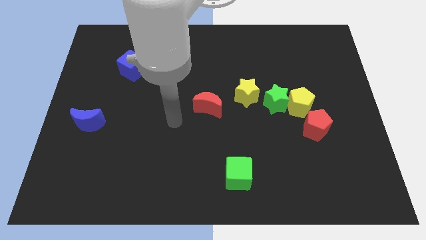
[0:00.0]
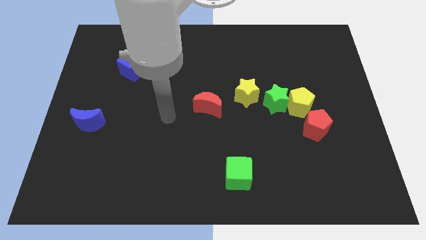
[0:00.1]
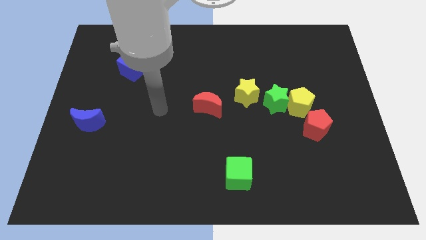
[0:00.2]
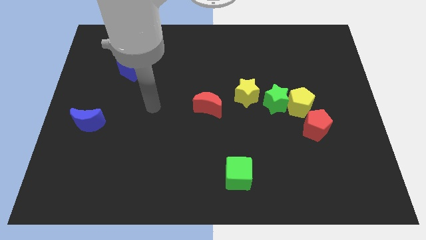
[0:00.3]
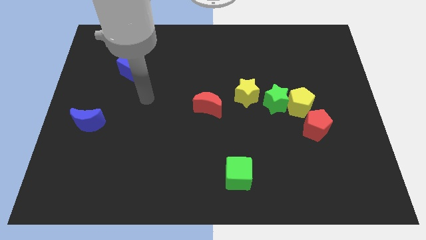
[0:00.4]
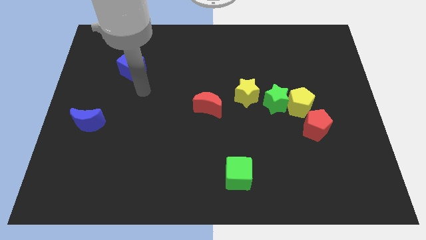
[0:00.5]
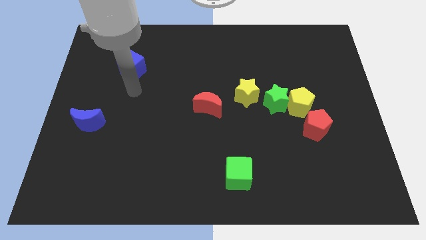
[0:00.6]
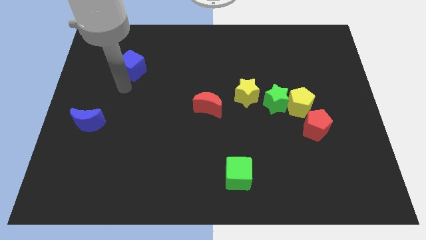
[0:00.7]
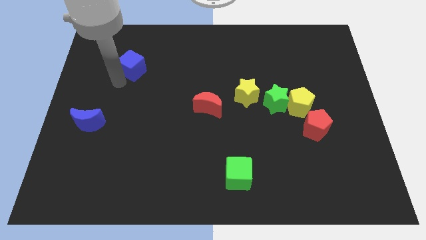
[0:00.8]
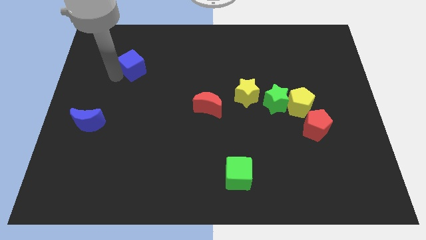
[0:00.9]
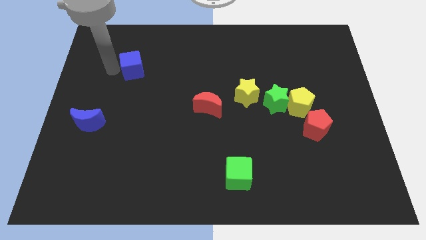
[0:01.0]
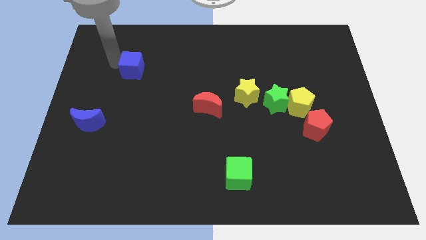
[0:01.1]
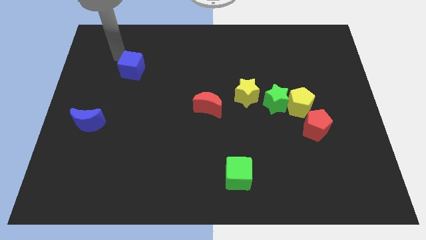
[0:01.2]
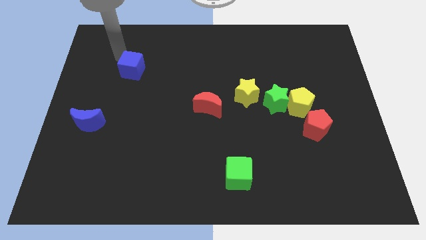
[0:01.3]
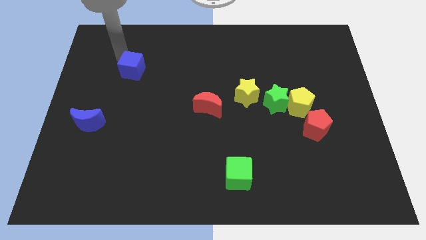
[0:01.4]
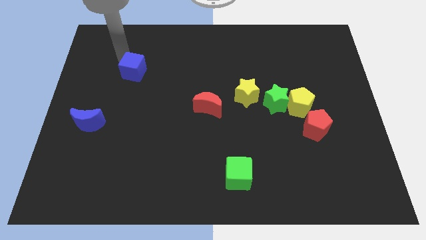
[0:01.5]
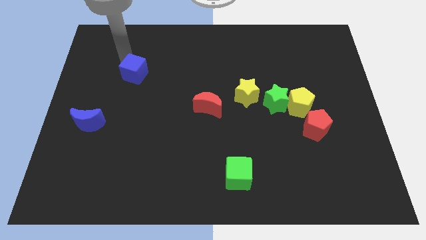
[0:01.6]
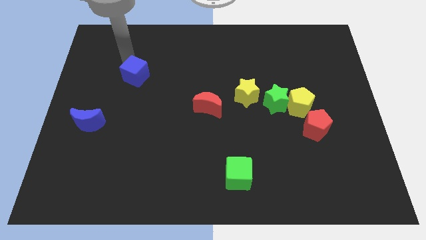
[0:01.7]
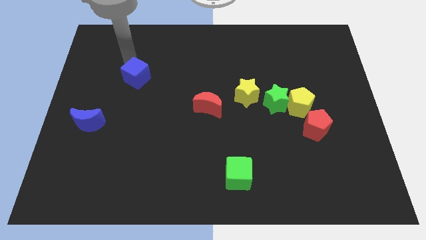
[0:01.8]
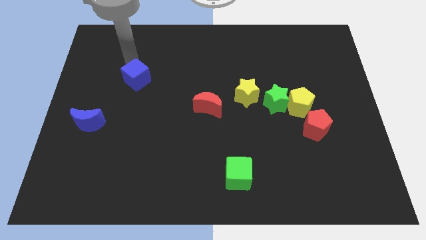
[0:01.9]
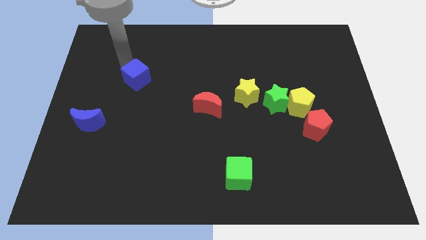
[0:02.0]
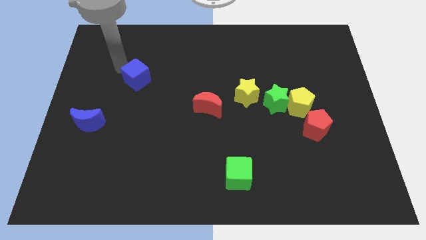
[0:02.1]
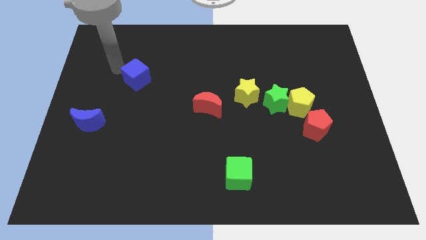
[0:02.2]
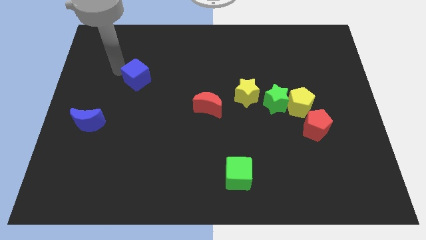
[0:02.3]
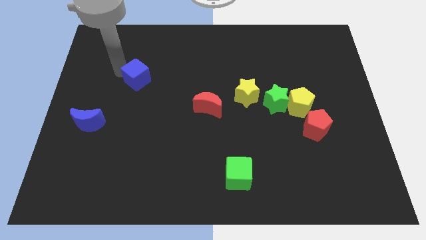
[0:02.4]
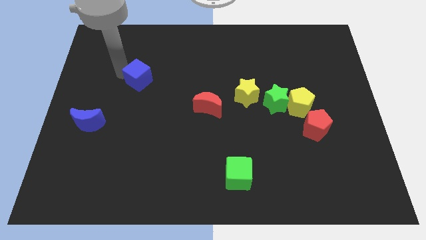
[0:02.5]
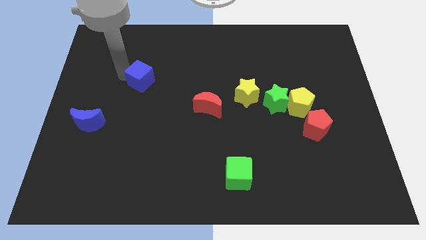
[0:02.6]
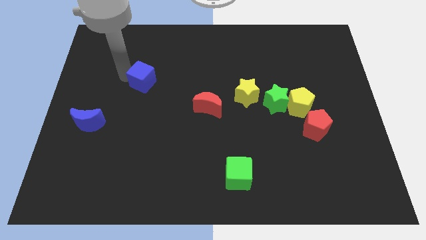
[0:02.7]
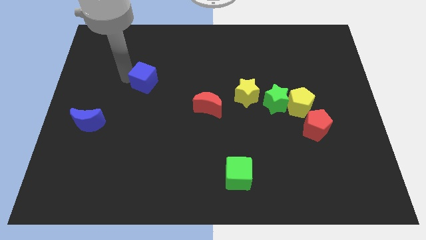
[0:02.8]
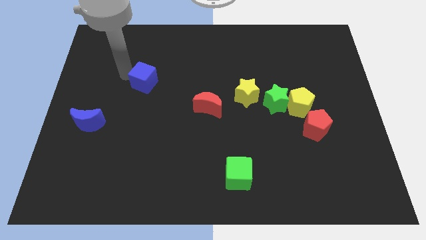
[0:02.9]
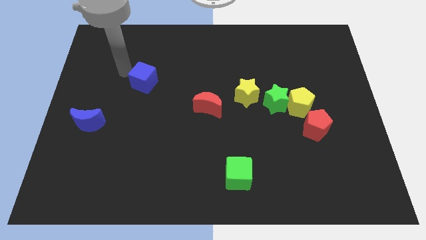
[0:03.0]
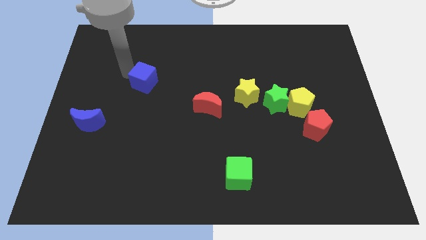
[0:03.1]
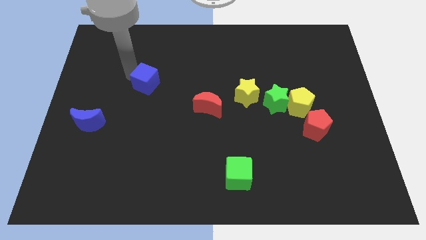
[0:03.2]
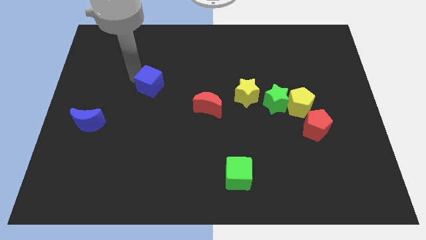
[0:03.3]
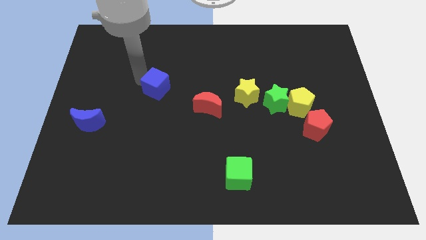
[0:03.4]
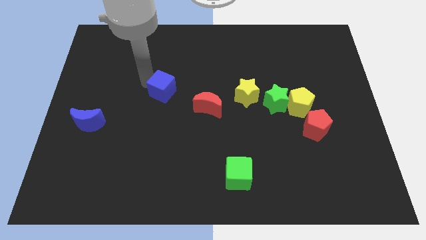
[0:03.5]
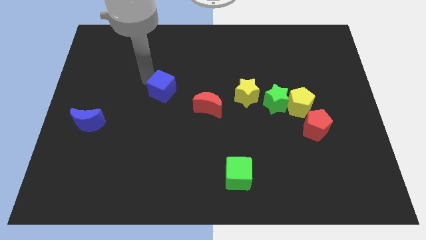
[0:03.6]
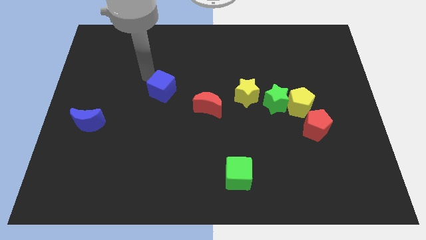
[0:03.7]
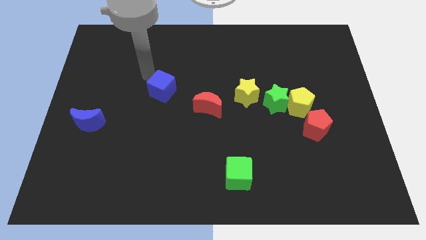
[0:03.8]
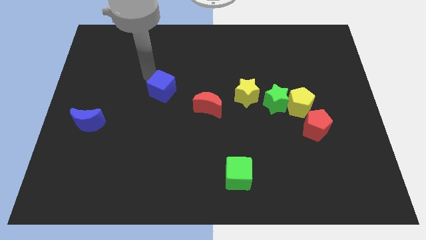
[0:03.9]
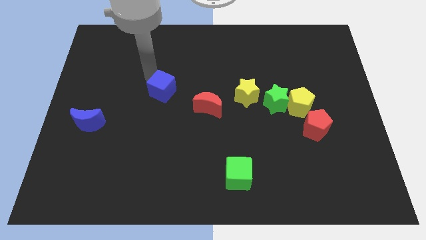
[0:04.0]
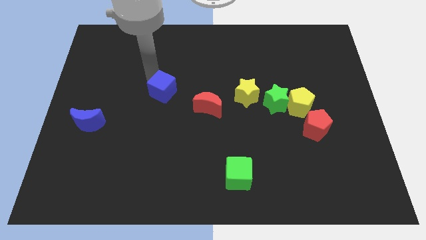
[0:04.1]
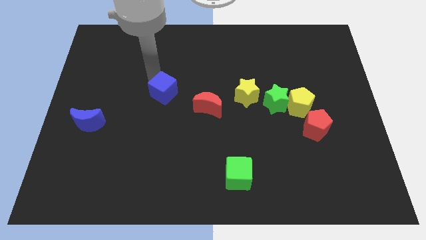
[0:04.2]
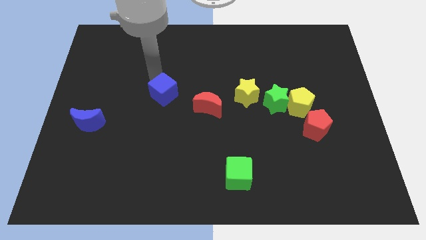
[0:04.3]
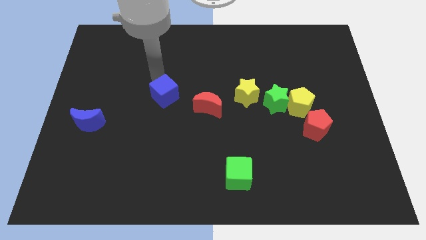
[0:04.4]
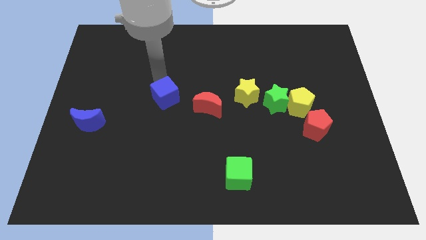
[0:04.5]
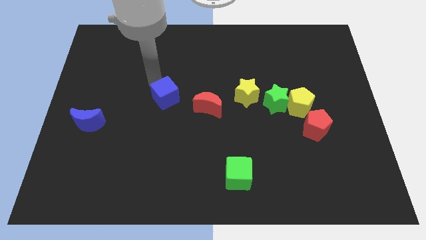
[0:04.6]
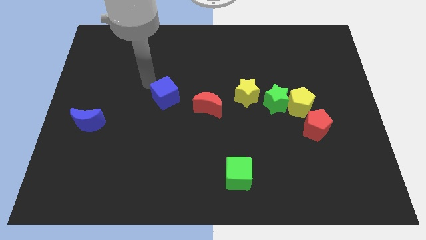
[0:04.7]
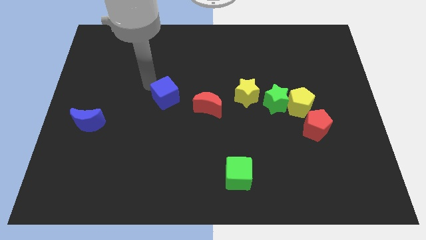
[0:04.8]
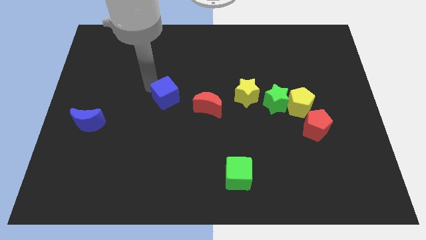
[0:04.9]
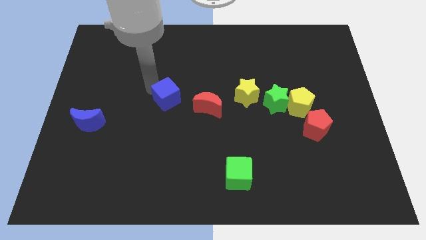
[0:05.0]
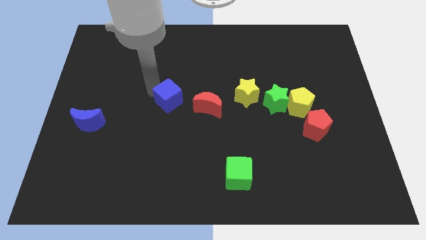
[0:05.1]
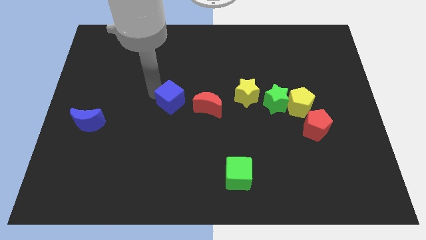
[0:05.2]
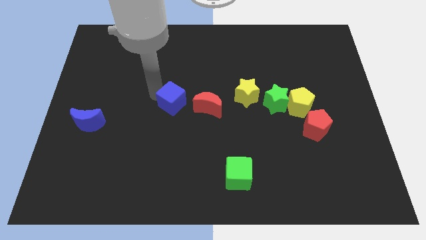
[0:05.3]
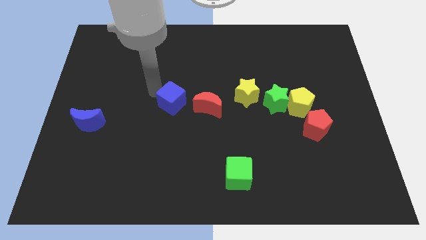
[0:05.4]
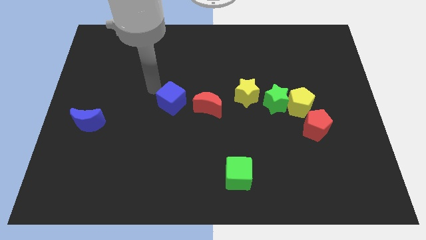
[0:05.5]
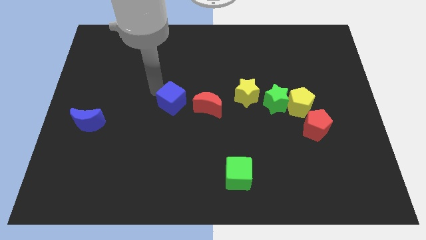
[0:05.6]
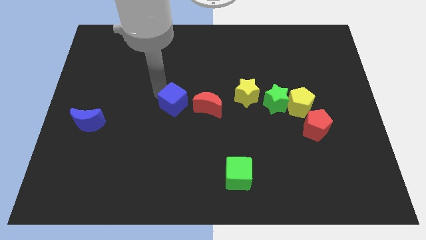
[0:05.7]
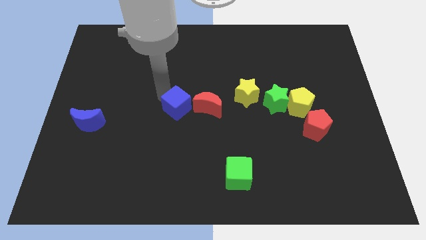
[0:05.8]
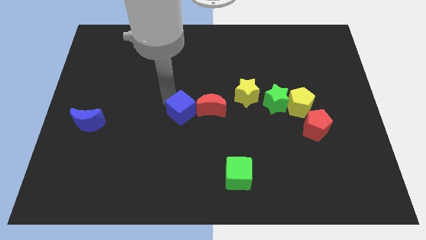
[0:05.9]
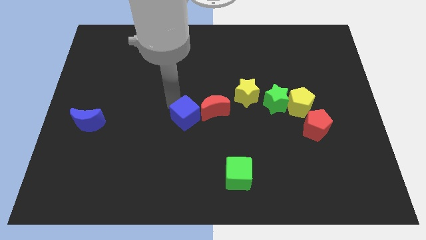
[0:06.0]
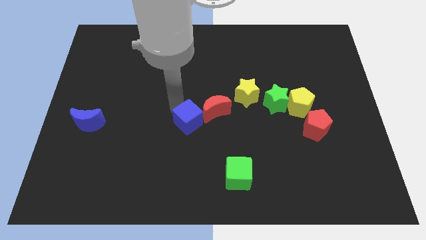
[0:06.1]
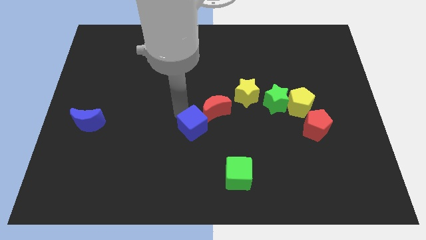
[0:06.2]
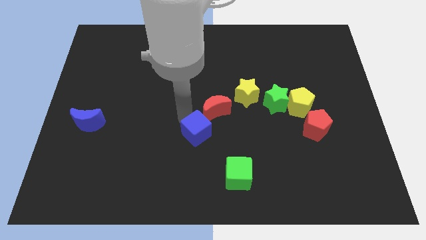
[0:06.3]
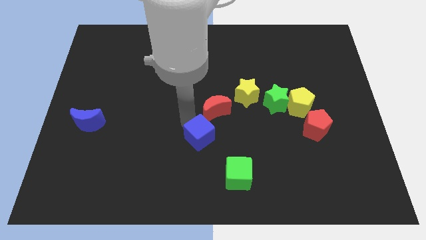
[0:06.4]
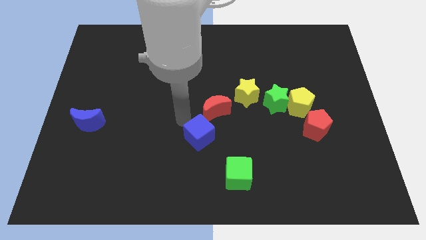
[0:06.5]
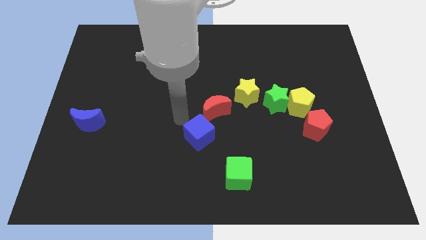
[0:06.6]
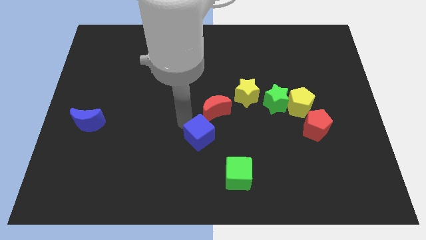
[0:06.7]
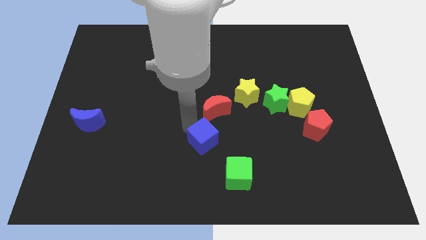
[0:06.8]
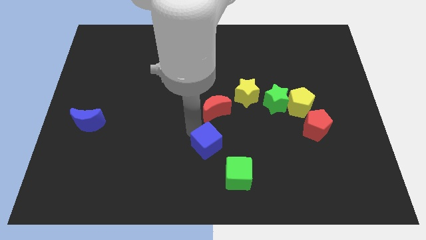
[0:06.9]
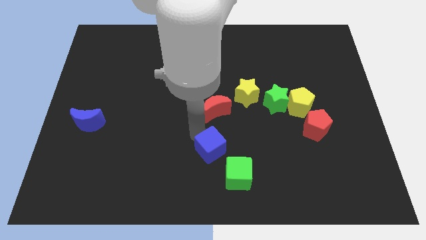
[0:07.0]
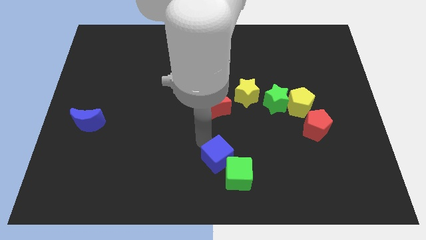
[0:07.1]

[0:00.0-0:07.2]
slide the blue cube close to the green cube

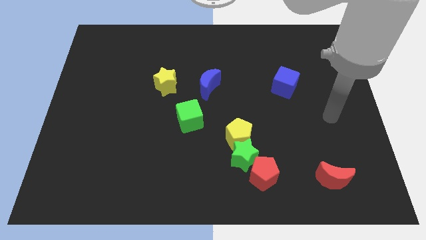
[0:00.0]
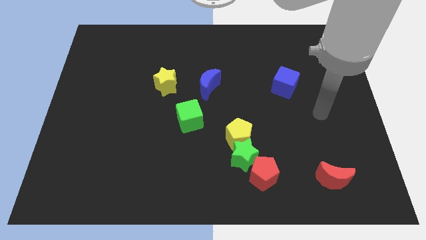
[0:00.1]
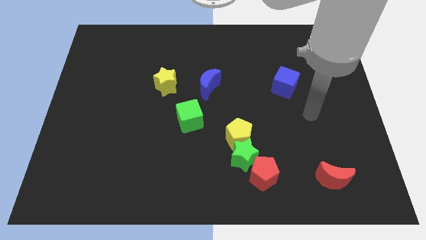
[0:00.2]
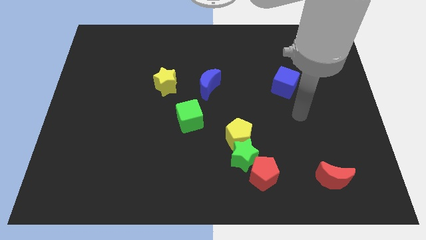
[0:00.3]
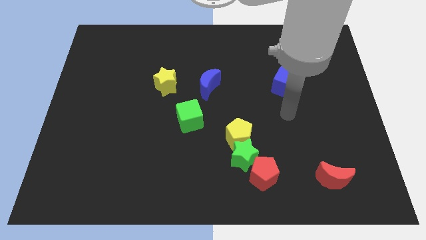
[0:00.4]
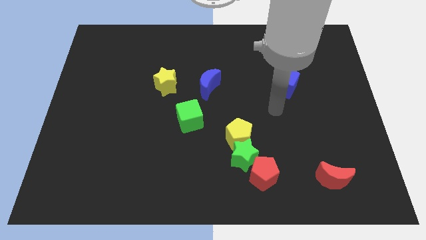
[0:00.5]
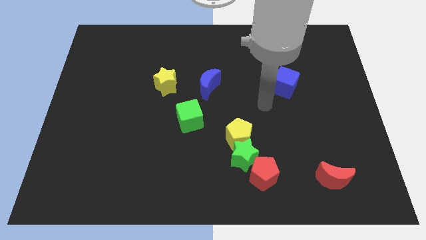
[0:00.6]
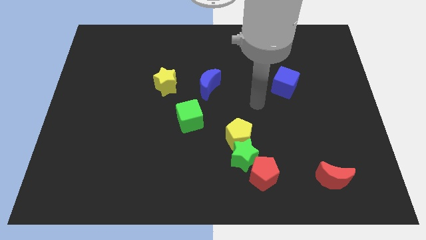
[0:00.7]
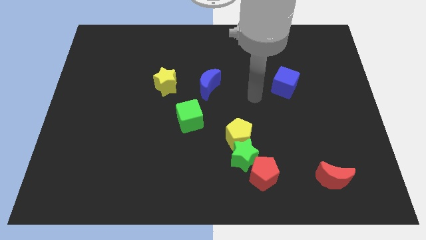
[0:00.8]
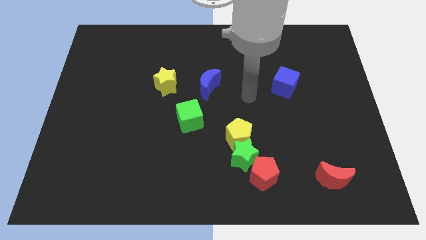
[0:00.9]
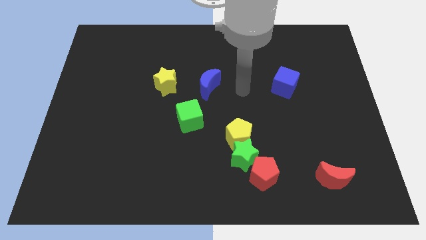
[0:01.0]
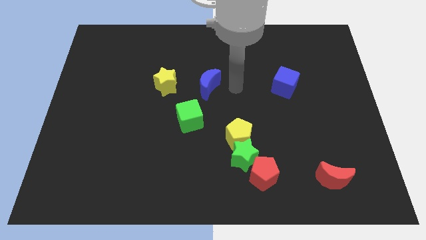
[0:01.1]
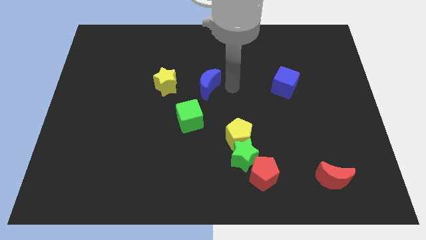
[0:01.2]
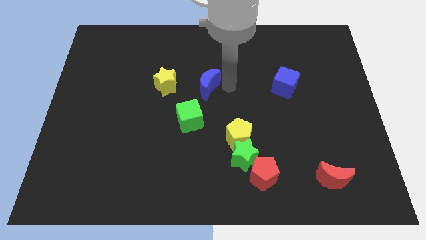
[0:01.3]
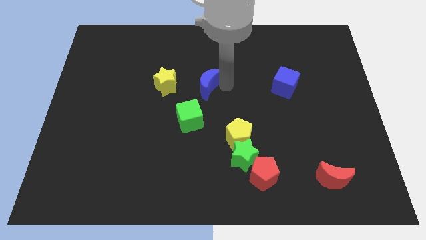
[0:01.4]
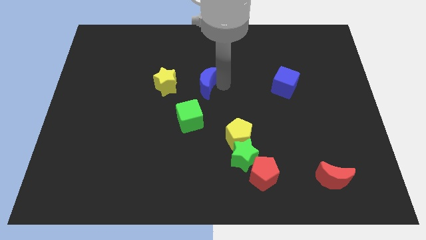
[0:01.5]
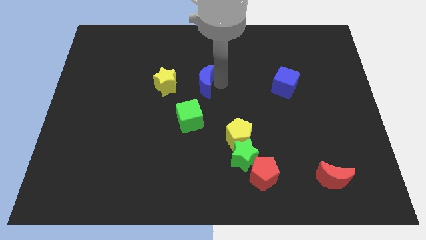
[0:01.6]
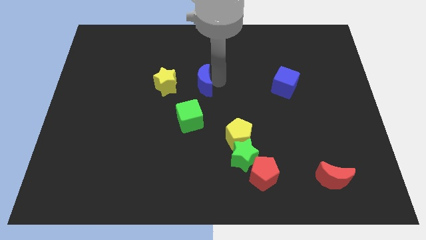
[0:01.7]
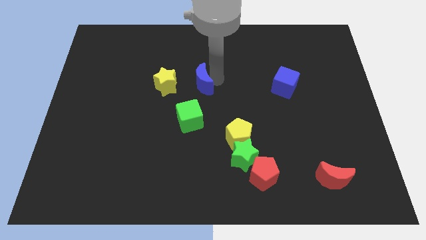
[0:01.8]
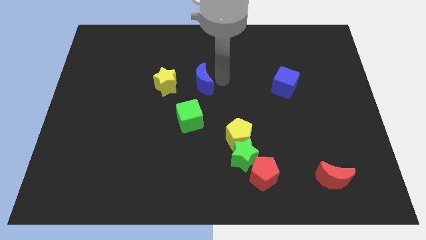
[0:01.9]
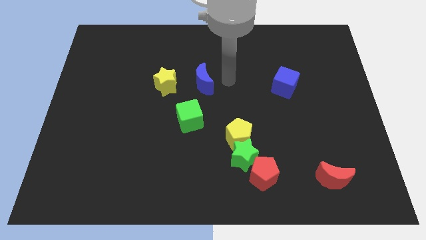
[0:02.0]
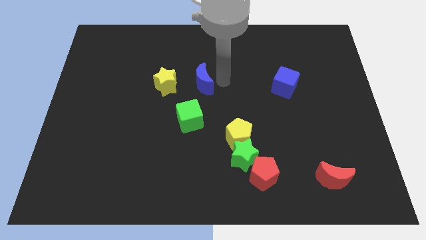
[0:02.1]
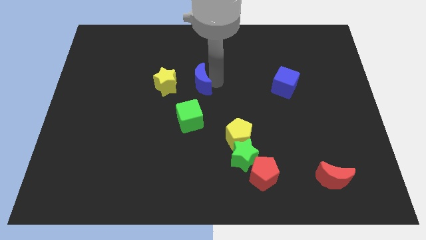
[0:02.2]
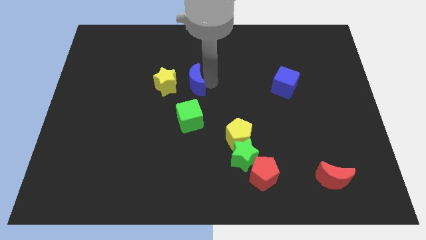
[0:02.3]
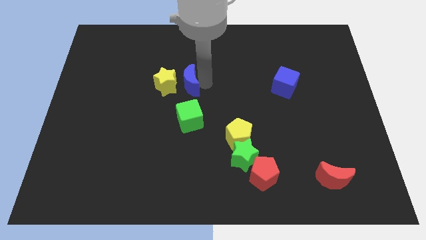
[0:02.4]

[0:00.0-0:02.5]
move the blue moon close to the yellow star
